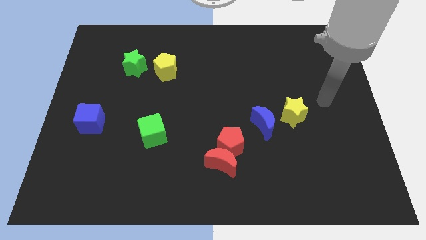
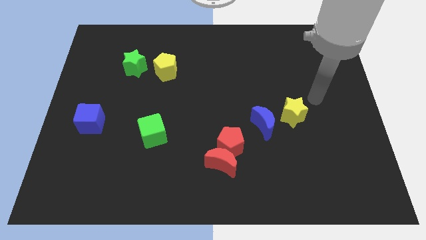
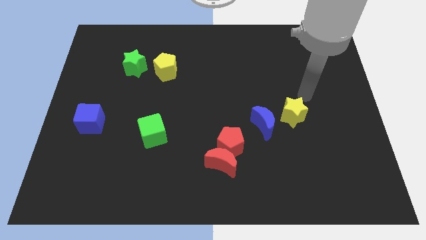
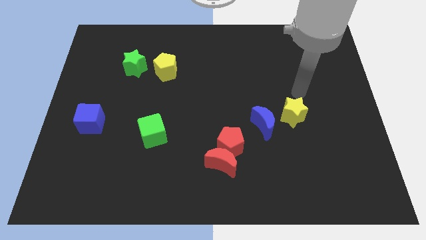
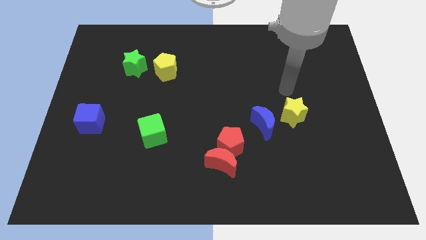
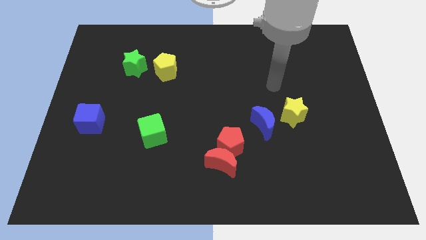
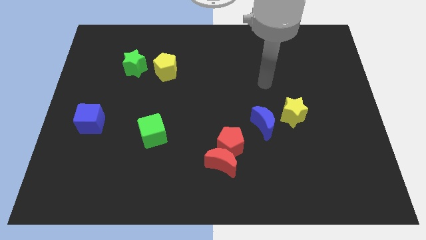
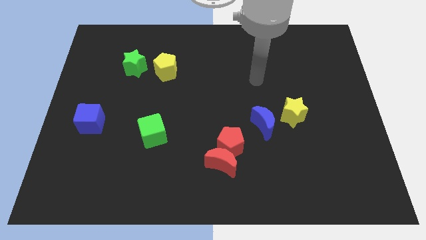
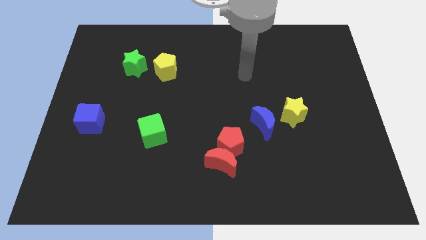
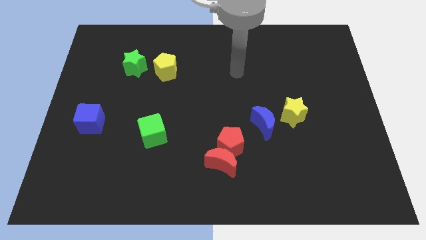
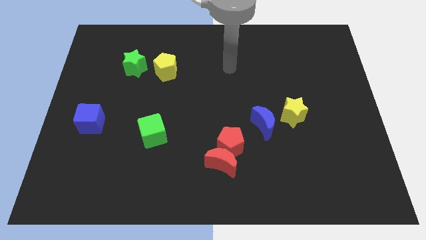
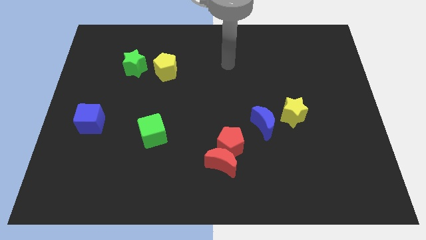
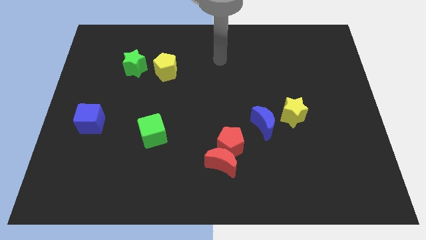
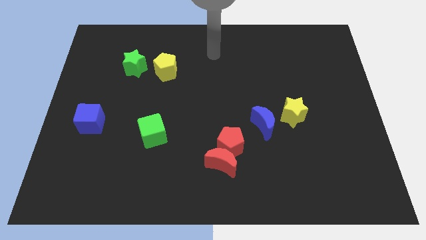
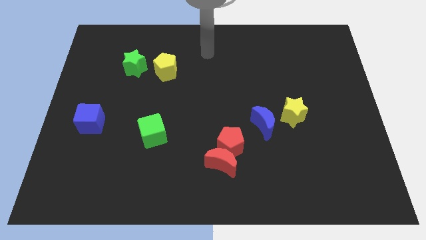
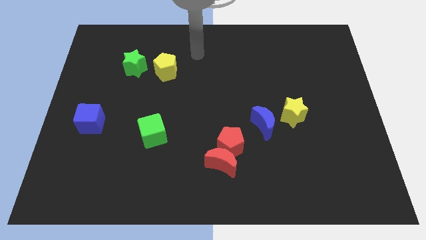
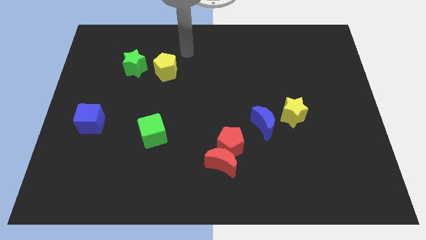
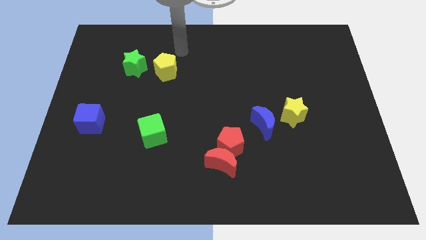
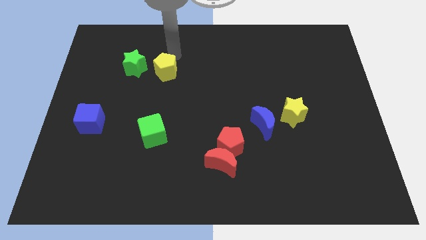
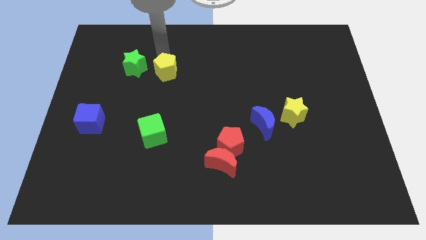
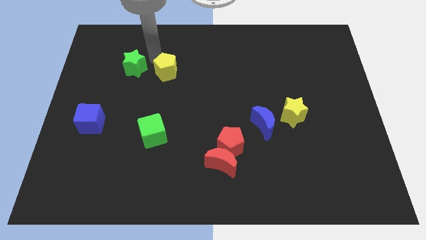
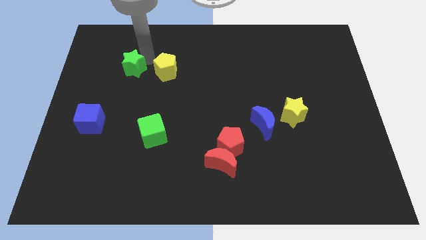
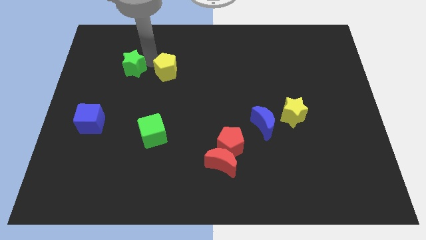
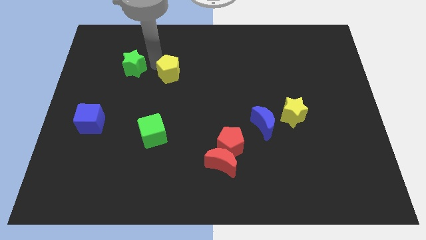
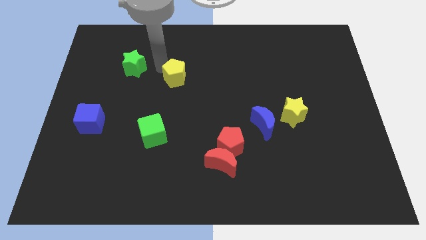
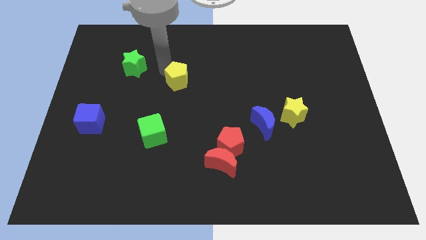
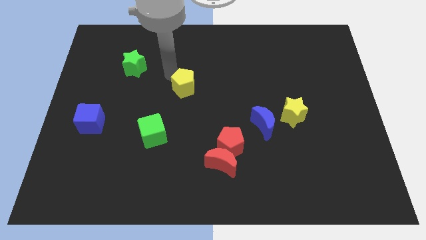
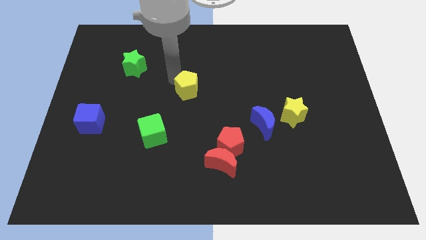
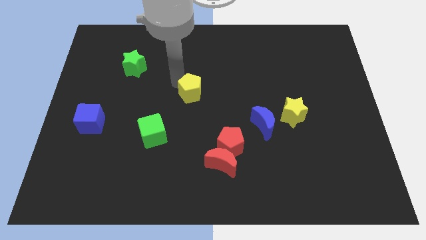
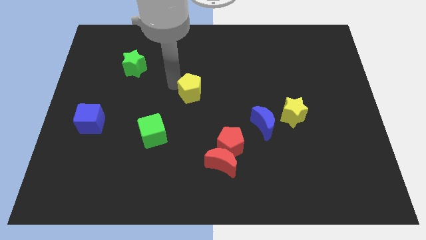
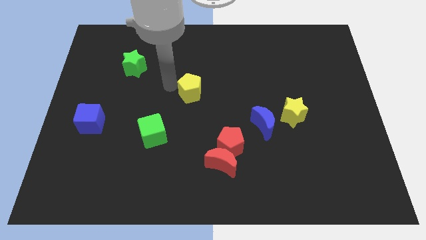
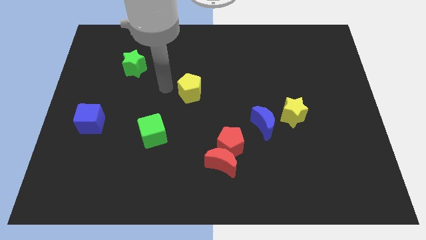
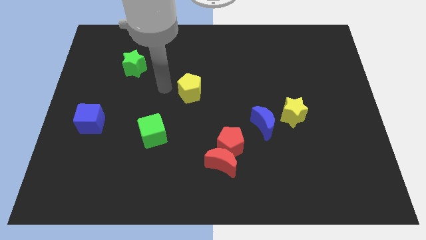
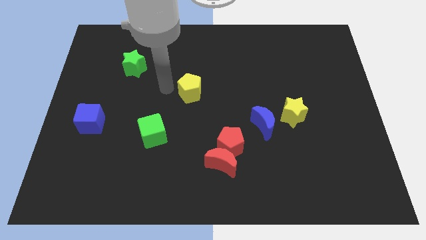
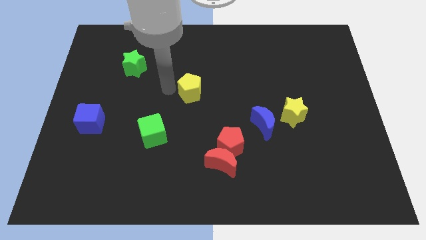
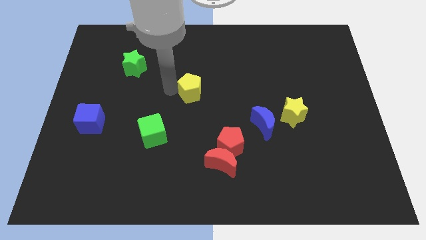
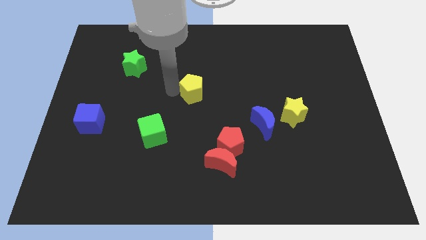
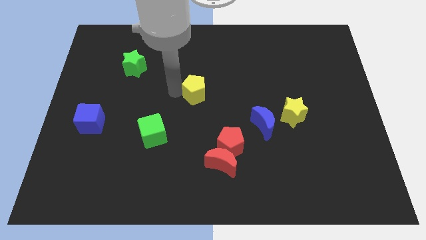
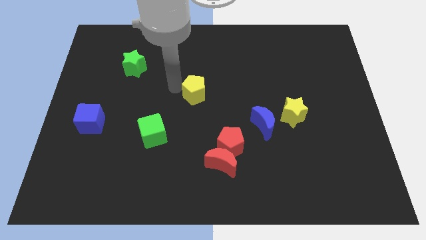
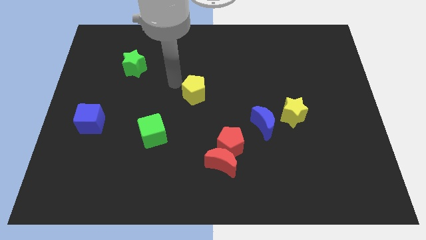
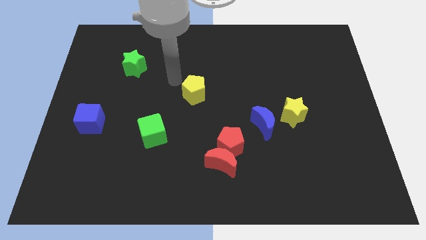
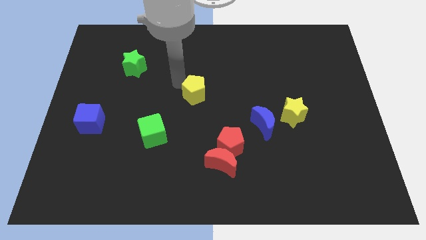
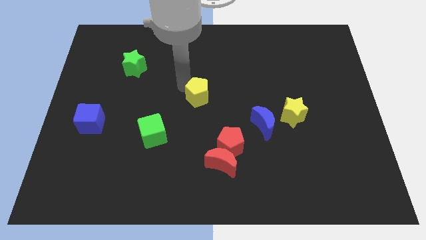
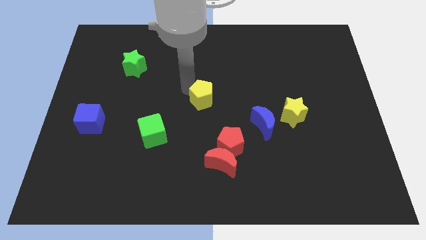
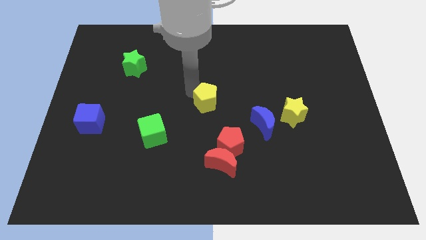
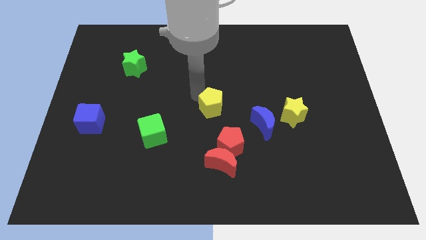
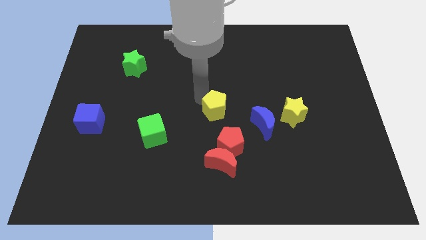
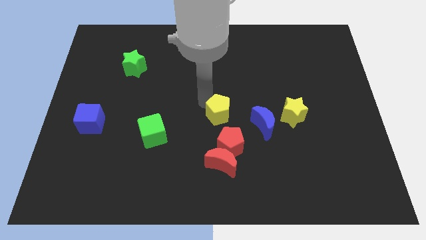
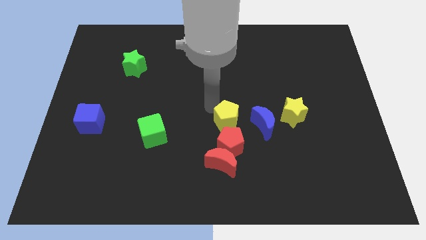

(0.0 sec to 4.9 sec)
slide the yellow pentagon down and then to the right

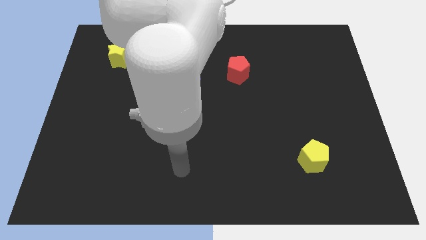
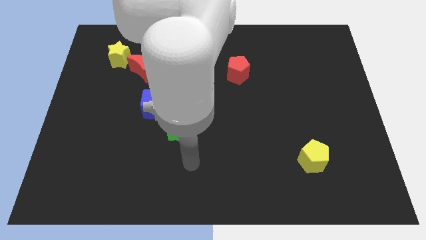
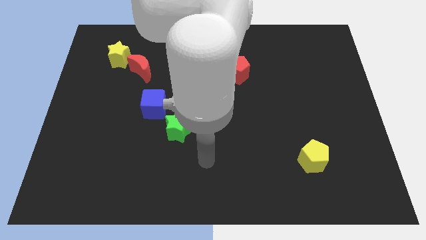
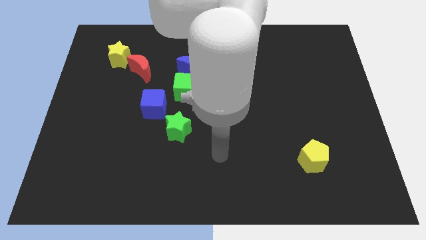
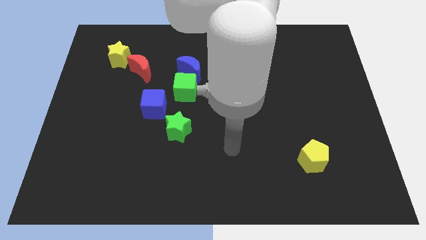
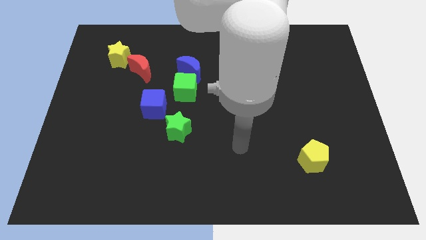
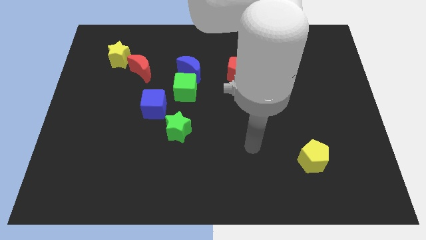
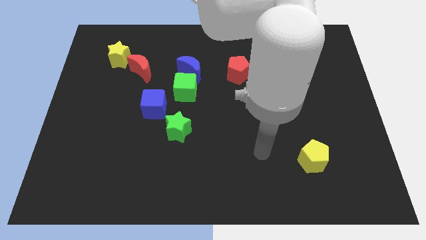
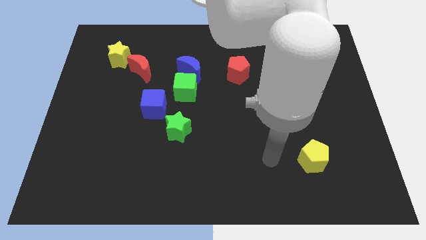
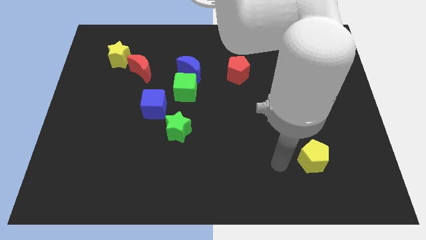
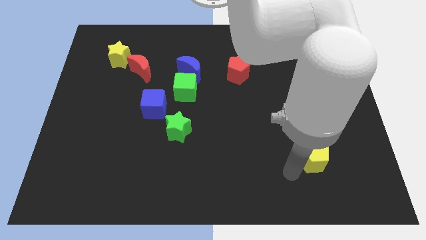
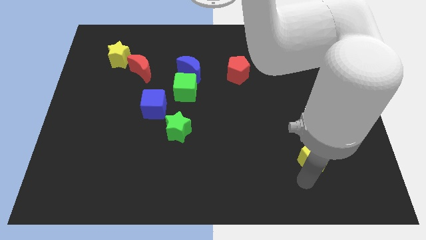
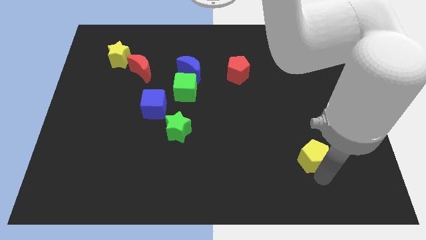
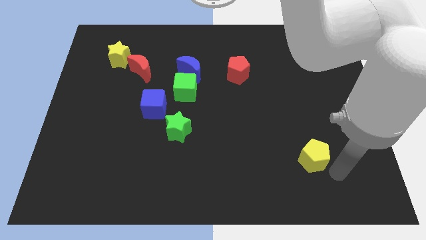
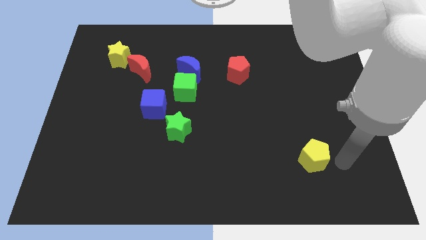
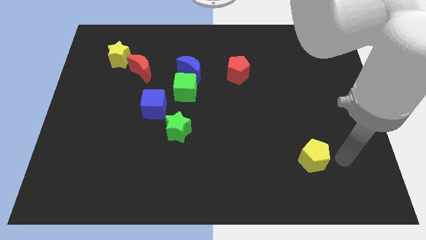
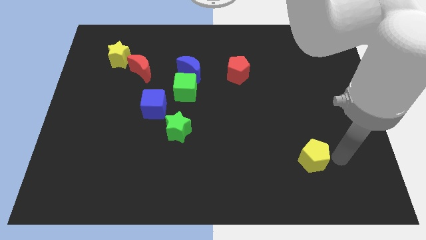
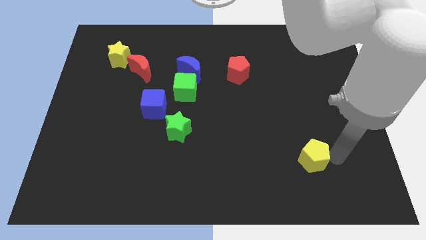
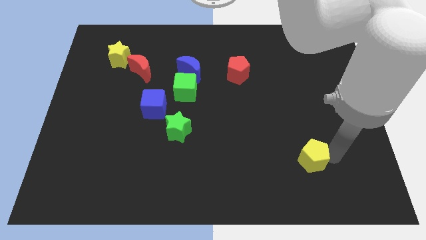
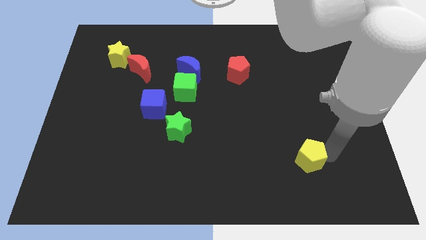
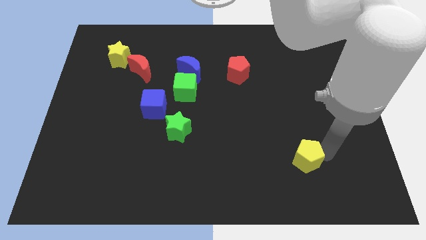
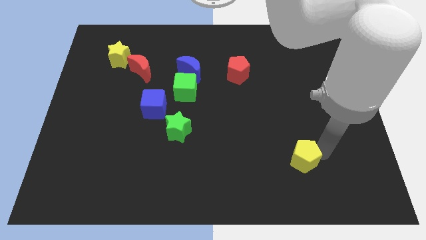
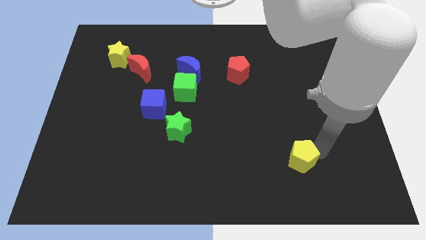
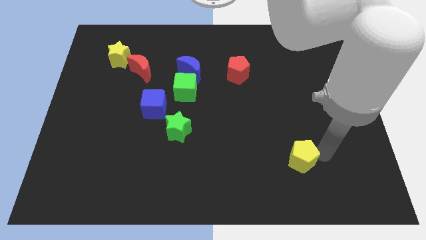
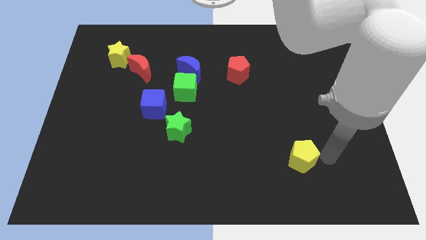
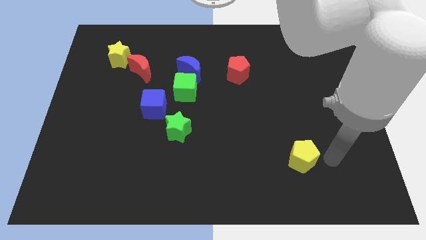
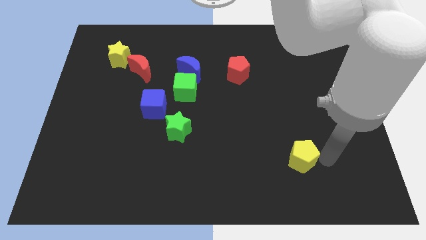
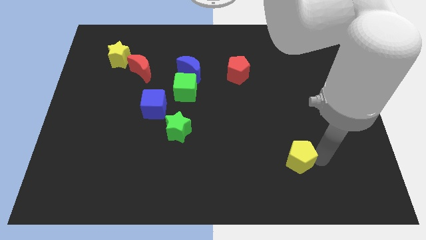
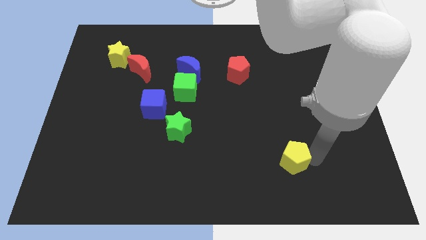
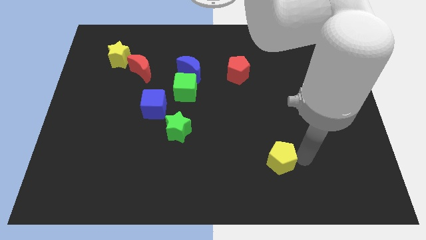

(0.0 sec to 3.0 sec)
slightly slide the yellow pentagon to the left

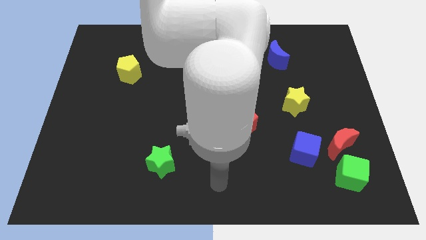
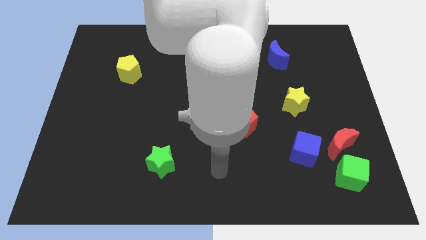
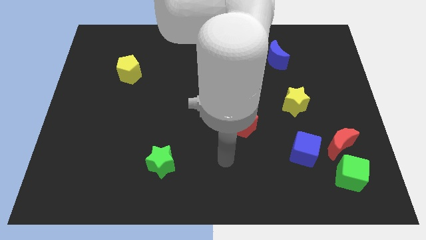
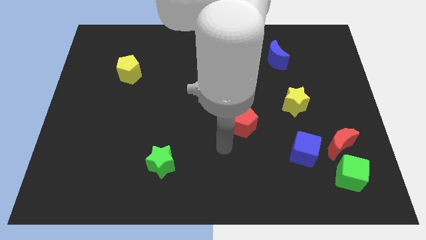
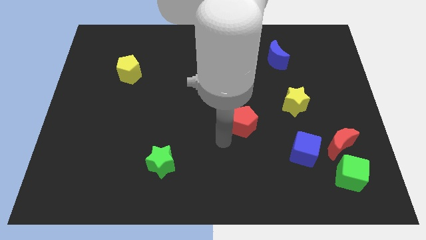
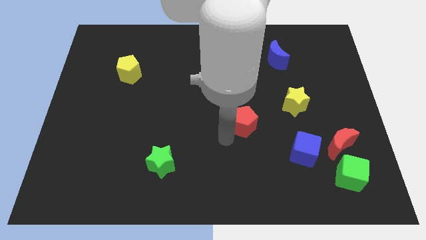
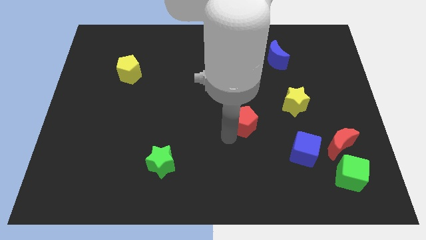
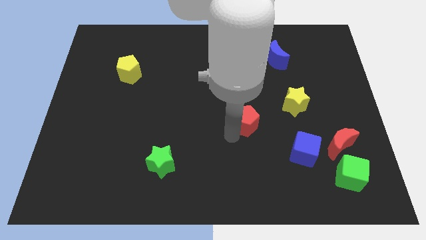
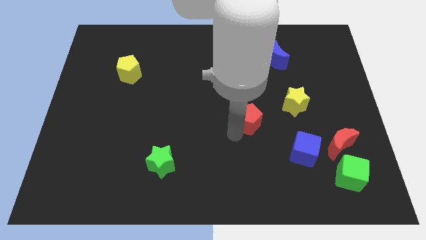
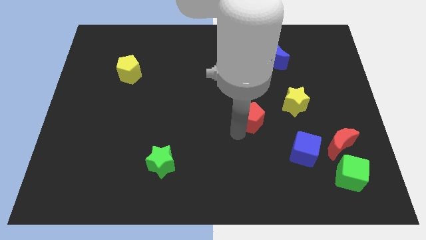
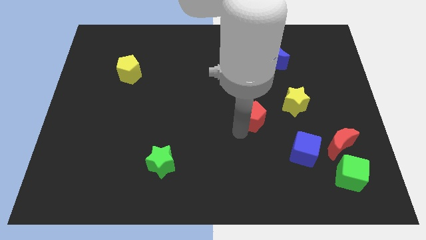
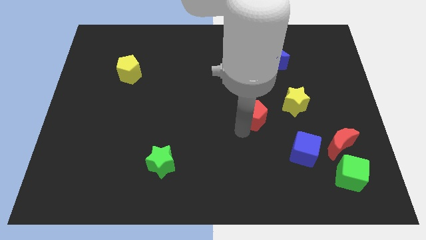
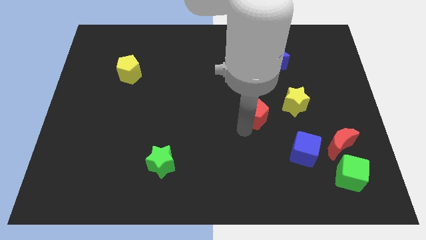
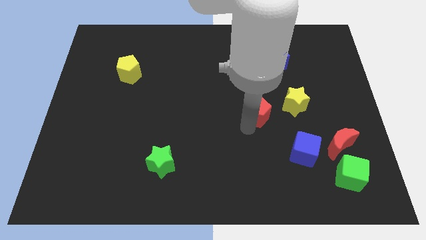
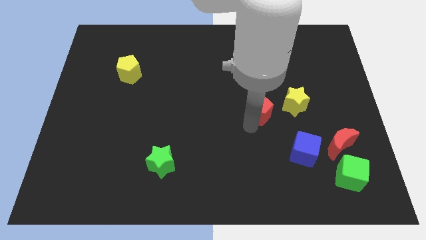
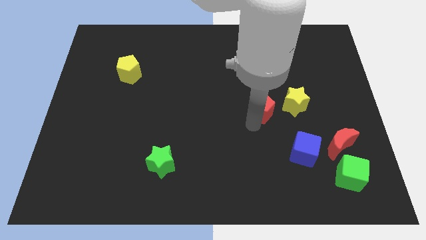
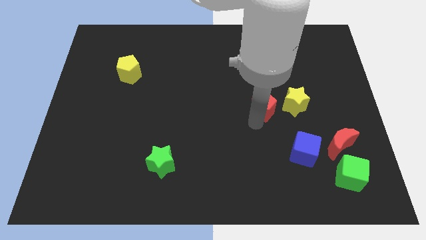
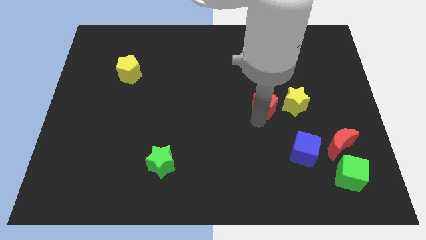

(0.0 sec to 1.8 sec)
slightly move the red pentagon up and right
